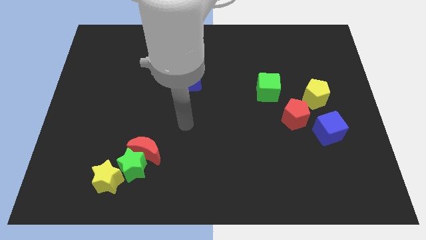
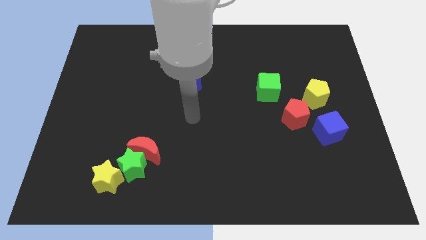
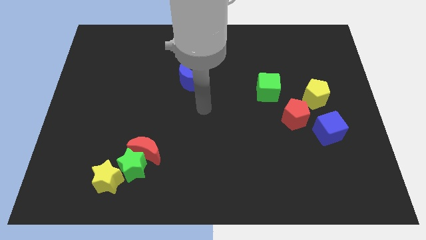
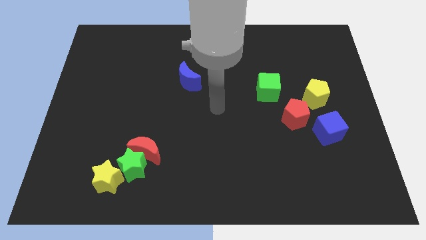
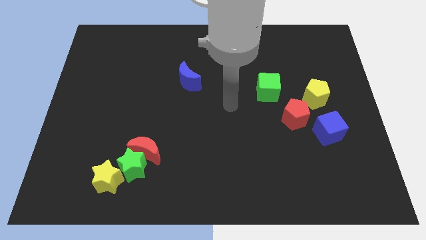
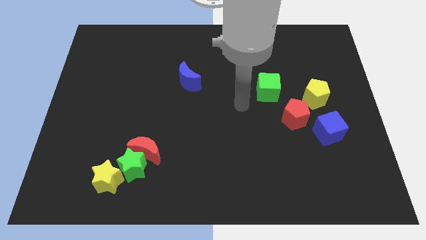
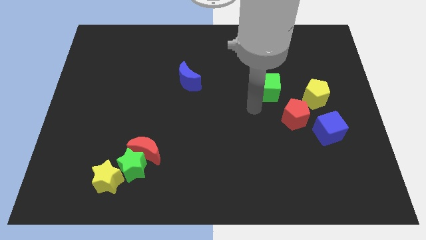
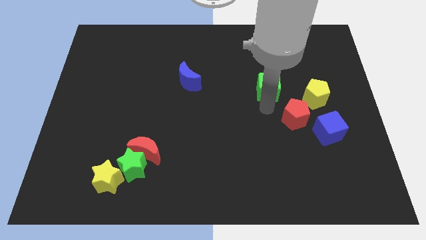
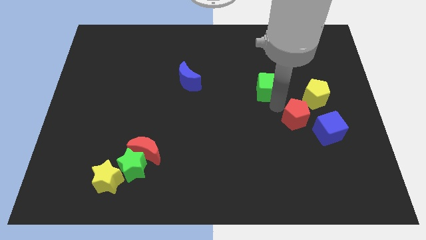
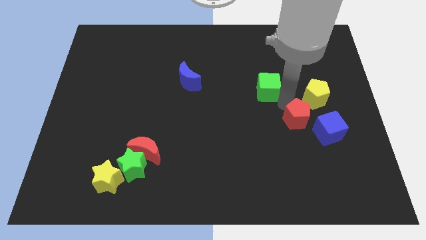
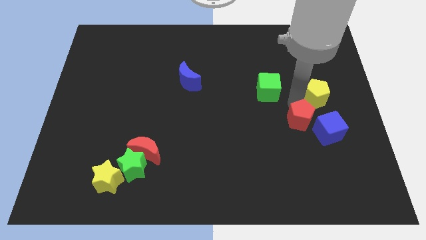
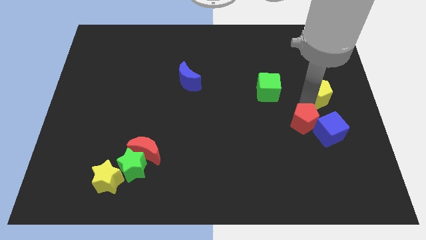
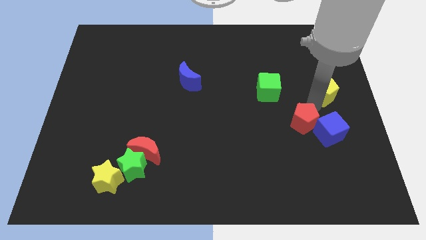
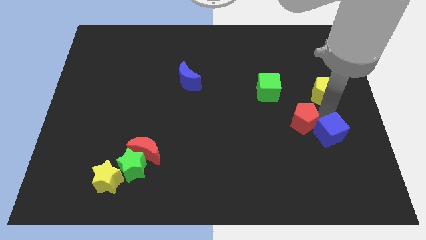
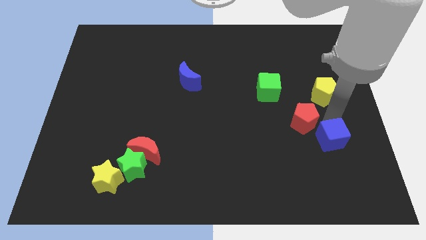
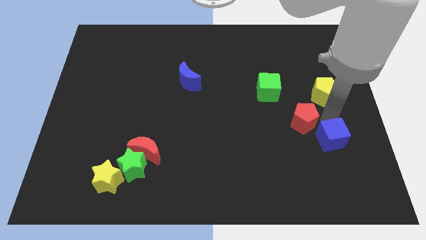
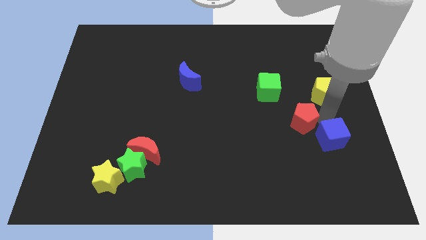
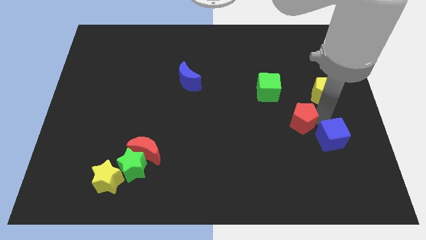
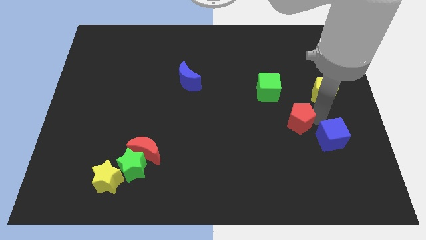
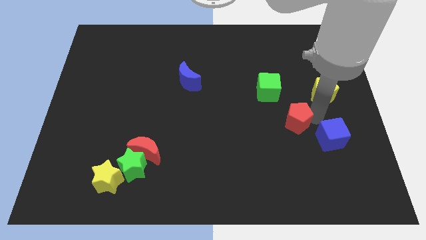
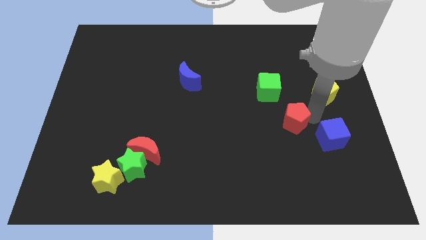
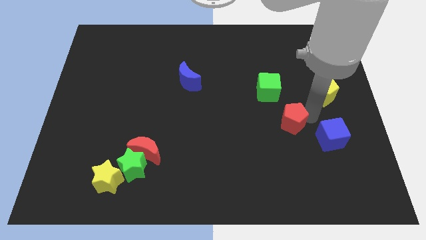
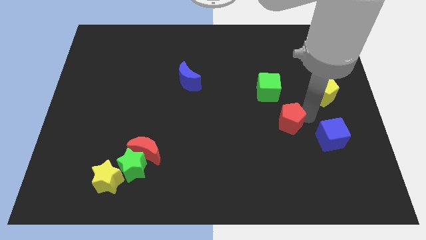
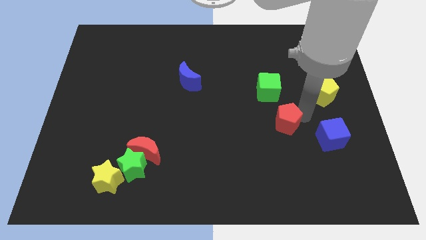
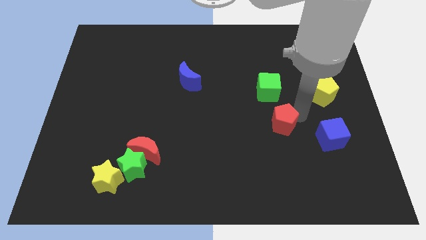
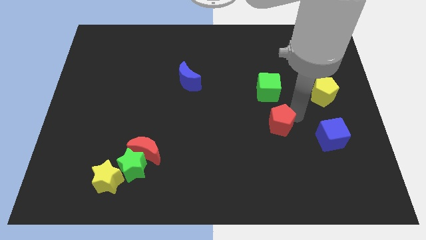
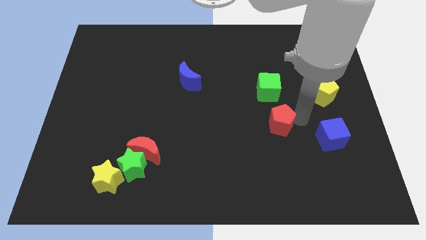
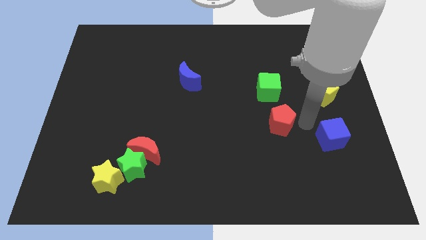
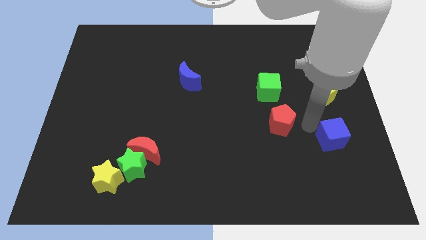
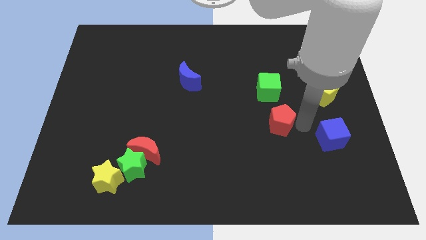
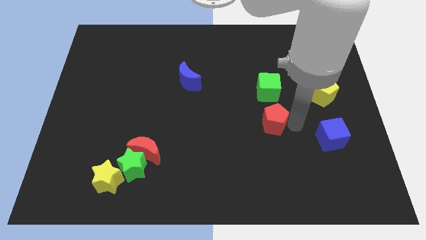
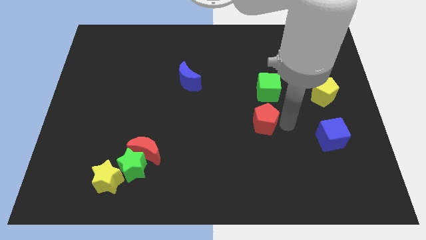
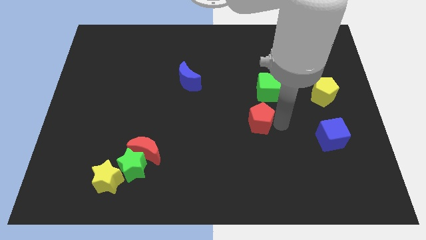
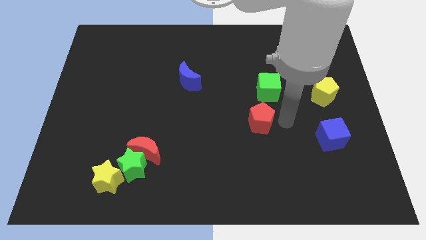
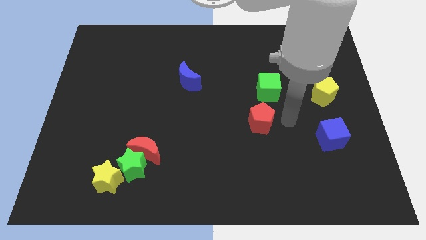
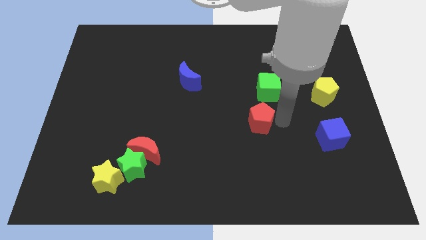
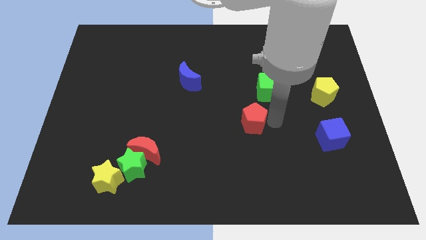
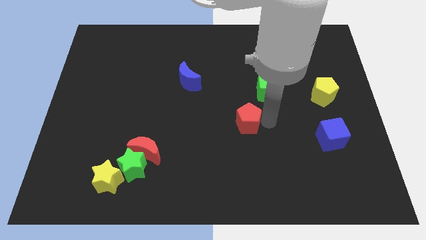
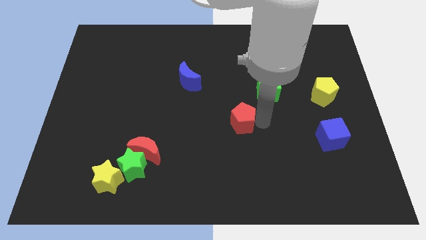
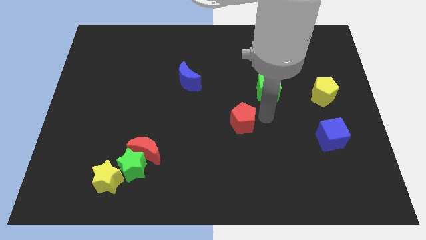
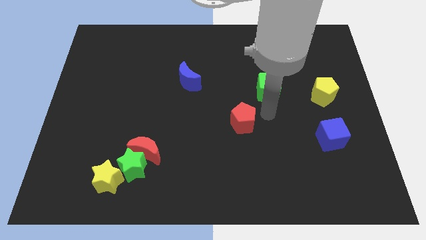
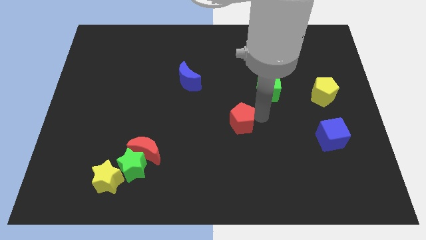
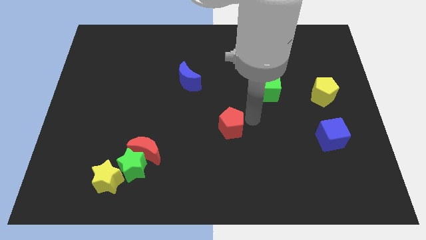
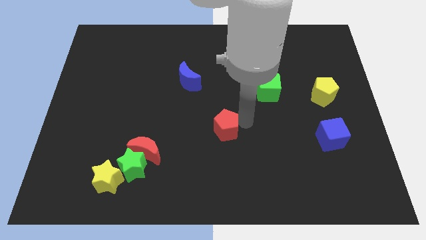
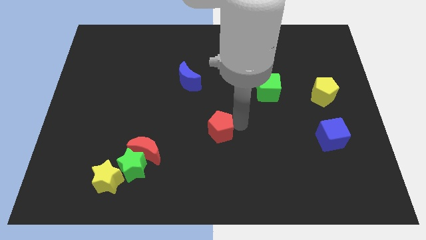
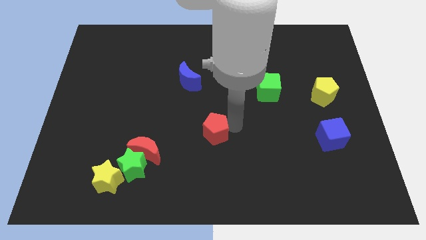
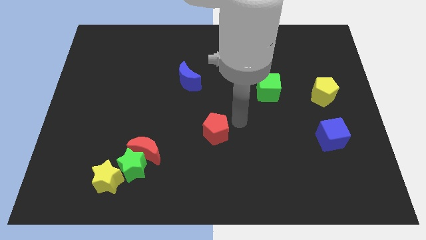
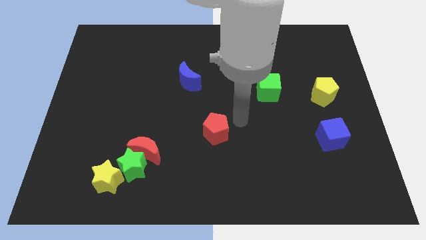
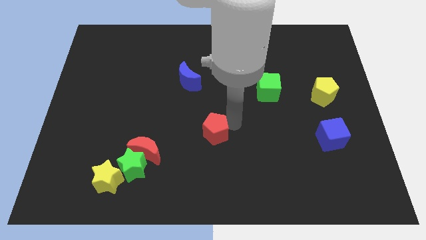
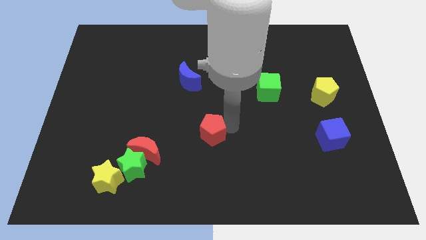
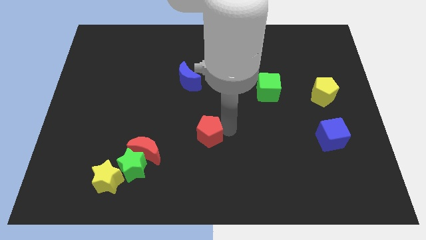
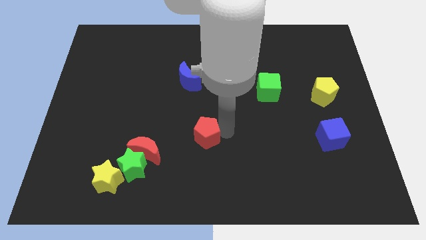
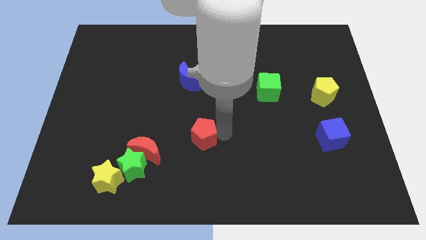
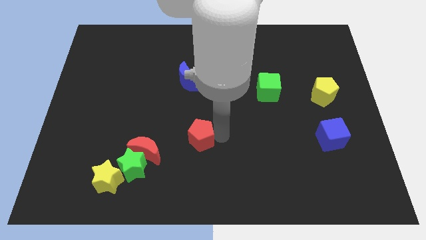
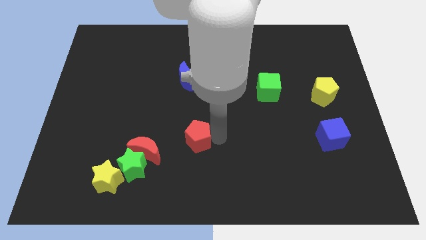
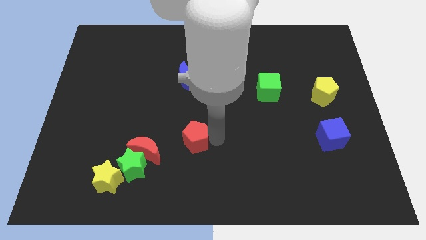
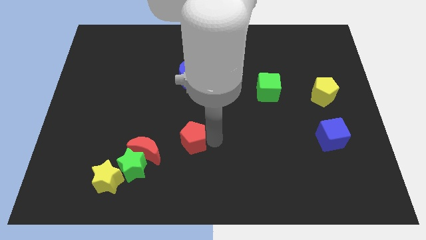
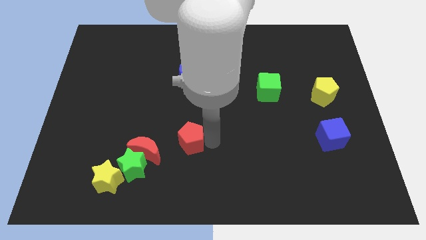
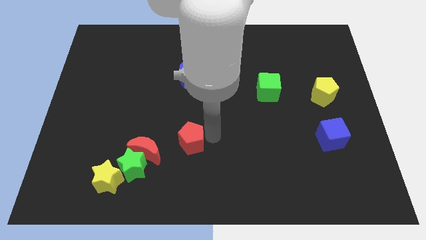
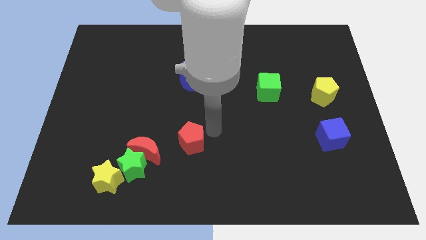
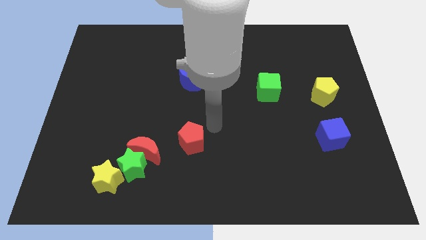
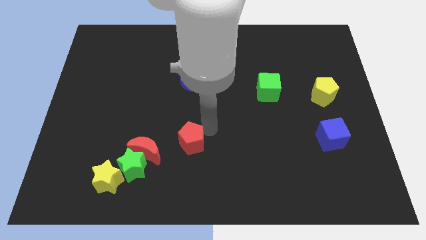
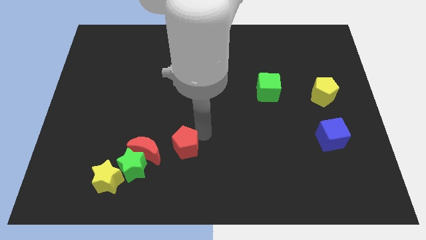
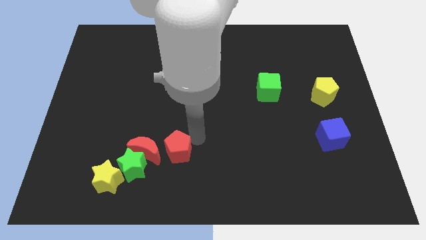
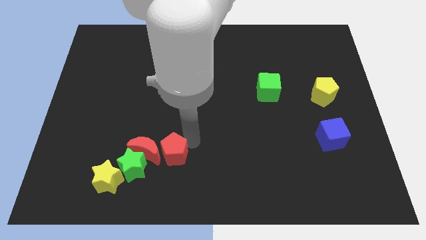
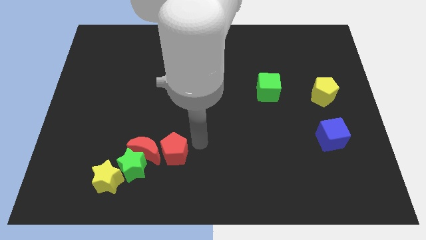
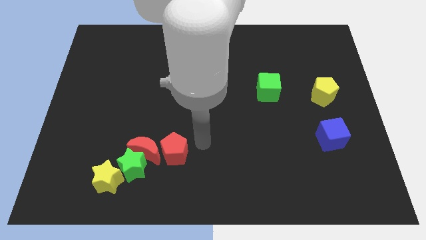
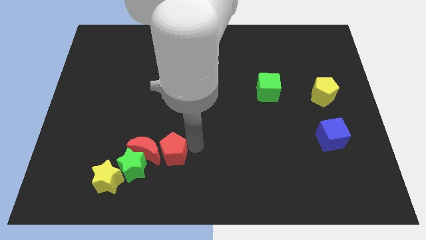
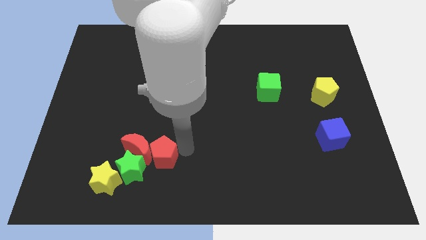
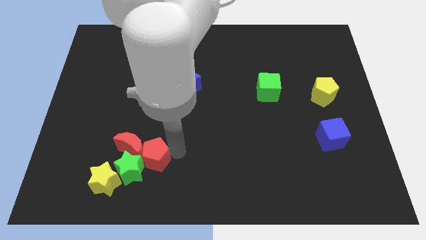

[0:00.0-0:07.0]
put the red pentagon to the green star
